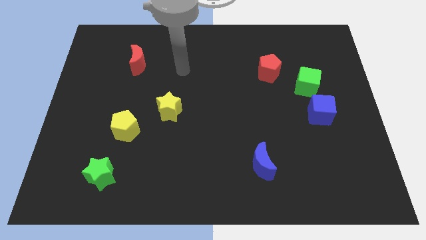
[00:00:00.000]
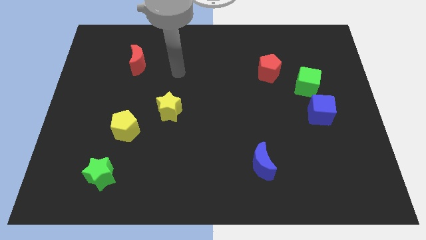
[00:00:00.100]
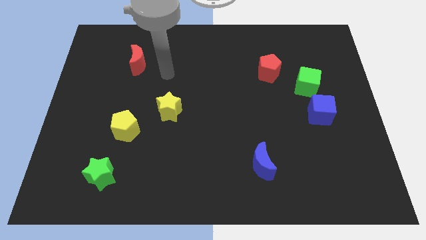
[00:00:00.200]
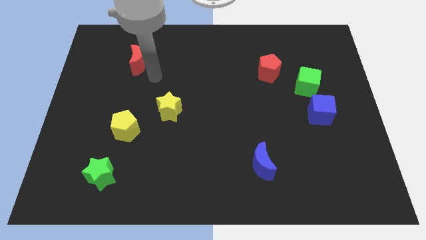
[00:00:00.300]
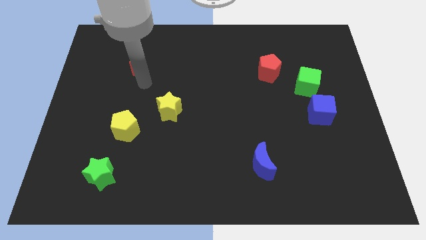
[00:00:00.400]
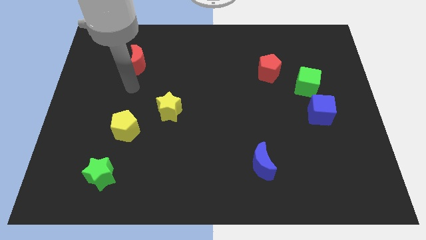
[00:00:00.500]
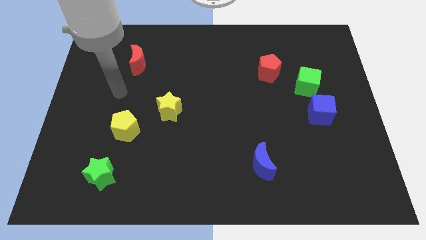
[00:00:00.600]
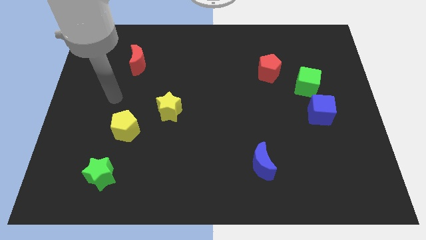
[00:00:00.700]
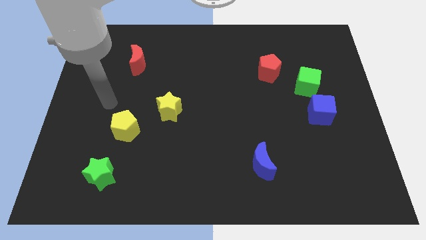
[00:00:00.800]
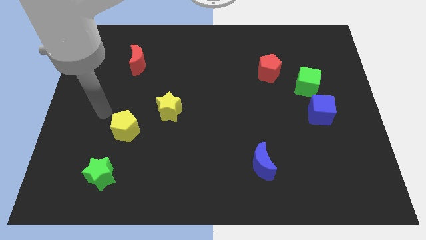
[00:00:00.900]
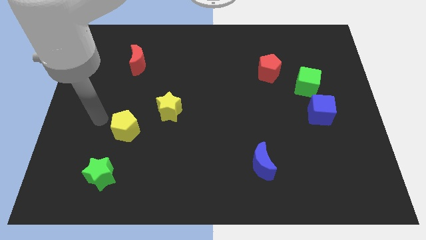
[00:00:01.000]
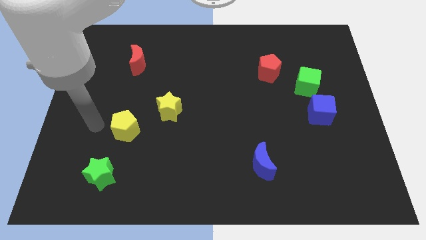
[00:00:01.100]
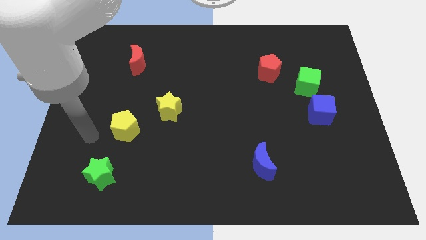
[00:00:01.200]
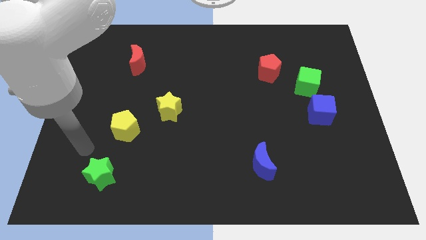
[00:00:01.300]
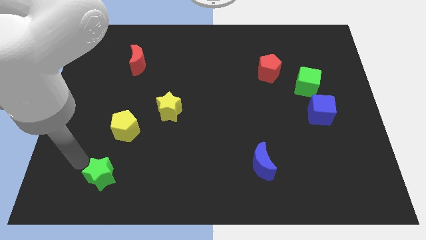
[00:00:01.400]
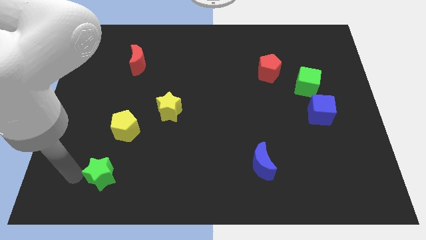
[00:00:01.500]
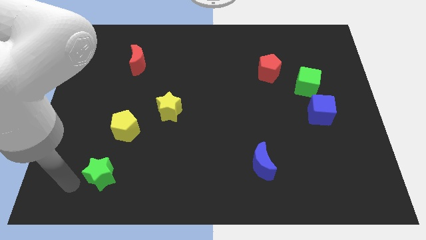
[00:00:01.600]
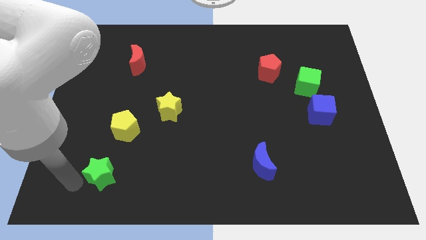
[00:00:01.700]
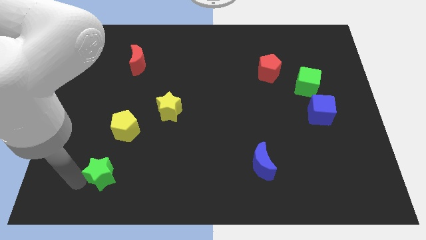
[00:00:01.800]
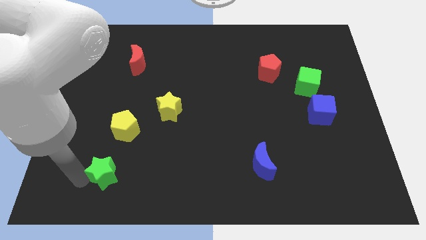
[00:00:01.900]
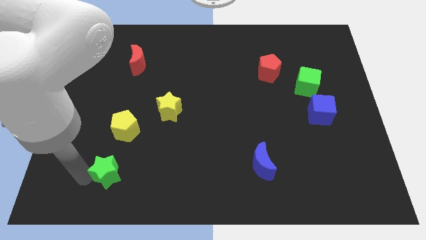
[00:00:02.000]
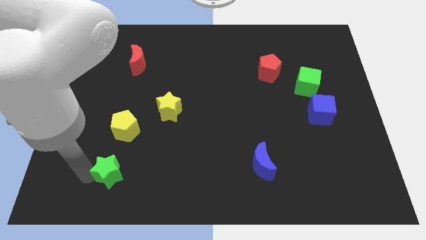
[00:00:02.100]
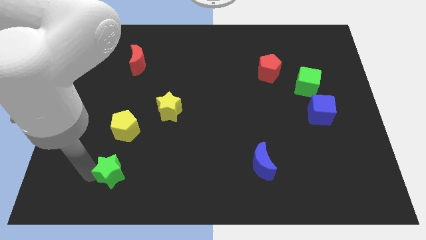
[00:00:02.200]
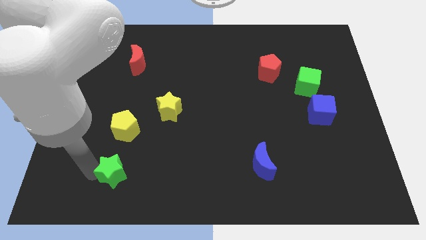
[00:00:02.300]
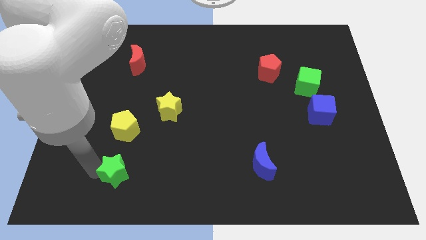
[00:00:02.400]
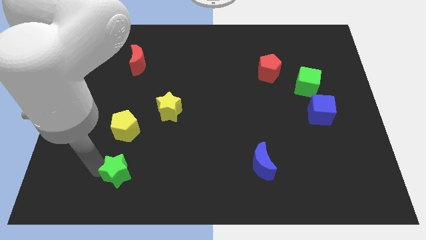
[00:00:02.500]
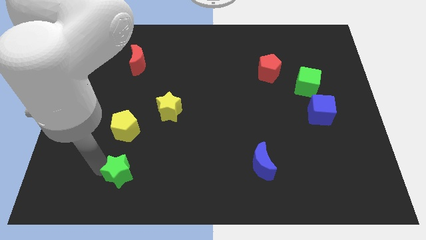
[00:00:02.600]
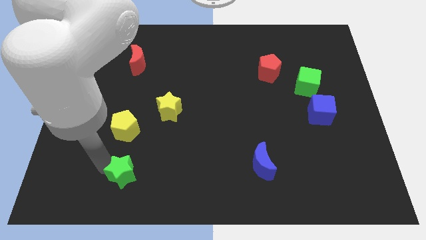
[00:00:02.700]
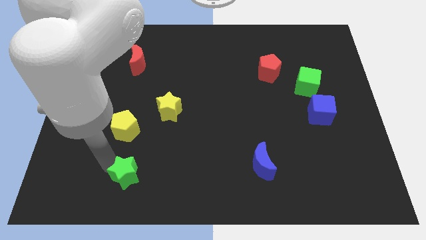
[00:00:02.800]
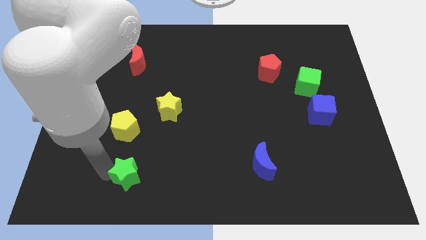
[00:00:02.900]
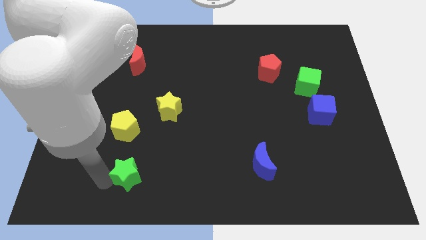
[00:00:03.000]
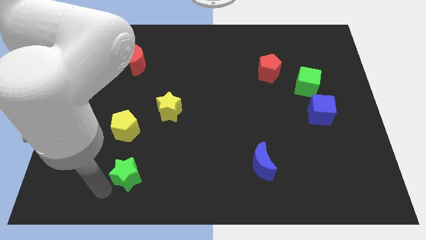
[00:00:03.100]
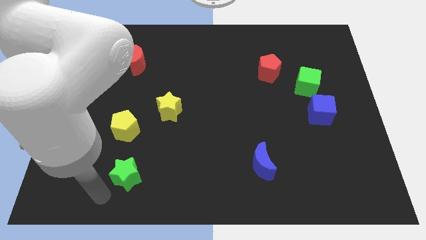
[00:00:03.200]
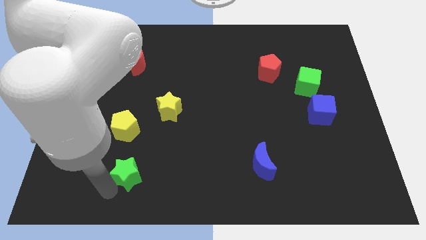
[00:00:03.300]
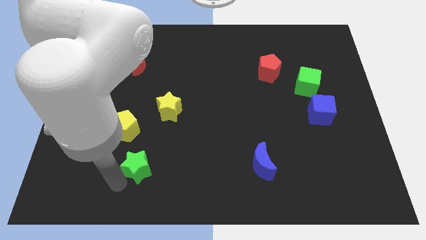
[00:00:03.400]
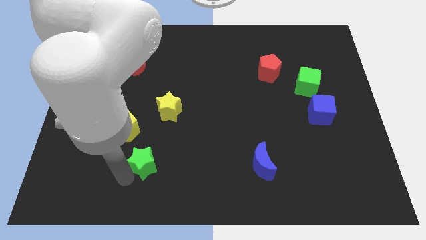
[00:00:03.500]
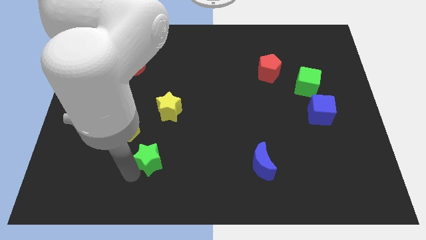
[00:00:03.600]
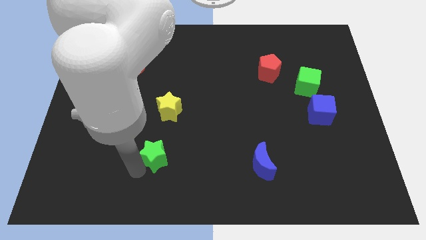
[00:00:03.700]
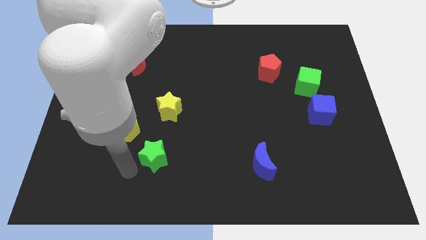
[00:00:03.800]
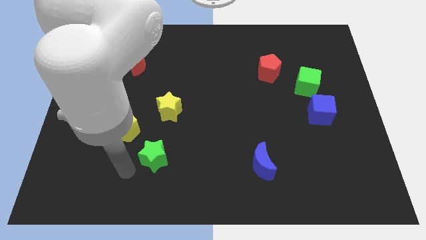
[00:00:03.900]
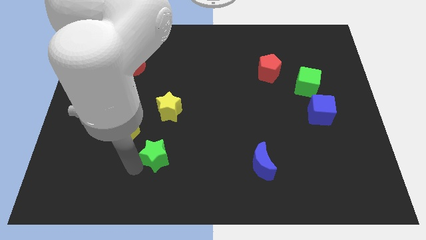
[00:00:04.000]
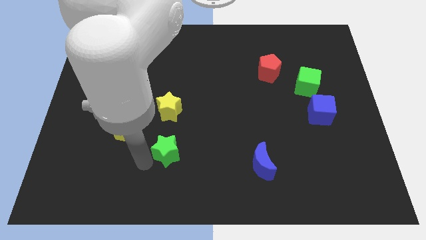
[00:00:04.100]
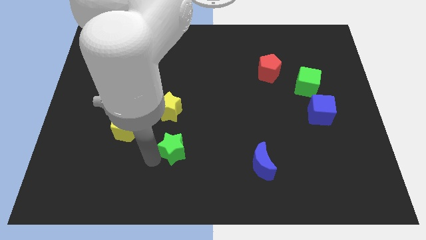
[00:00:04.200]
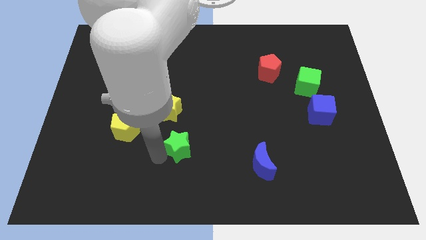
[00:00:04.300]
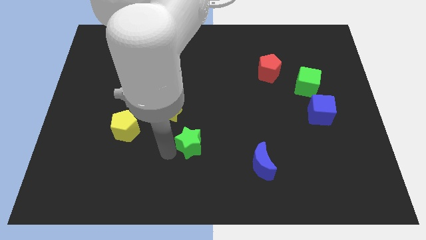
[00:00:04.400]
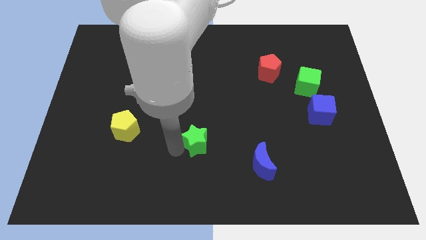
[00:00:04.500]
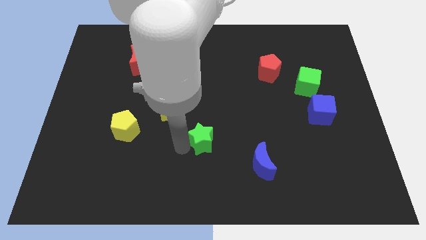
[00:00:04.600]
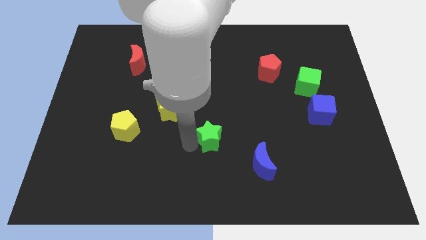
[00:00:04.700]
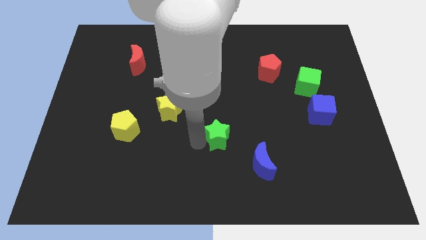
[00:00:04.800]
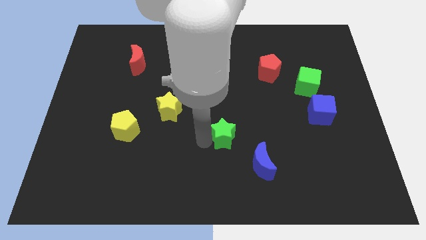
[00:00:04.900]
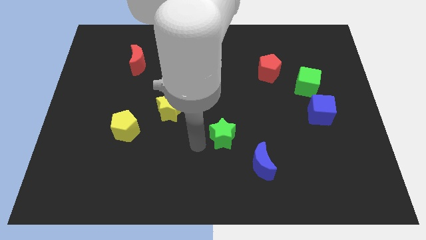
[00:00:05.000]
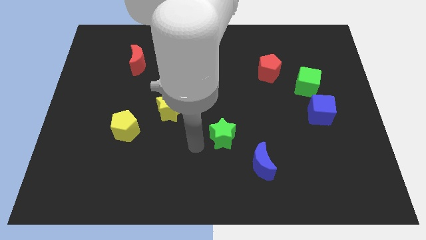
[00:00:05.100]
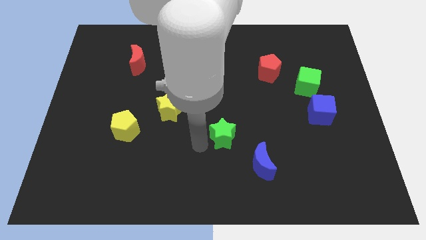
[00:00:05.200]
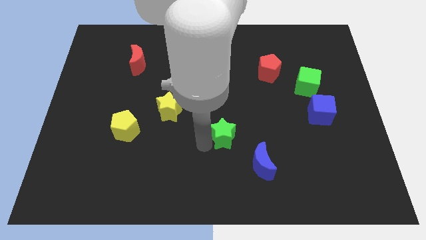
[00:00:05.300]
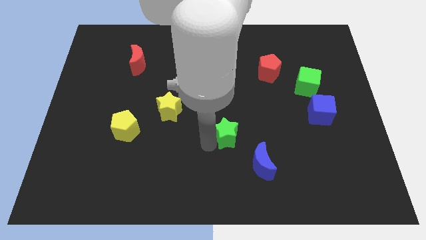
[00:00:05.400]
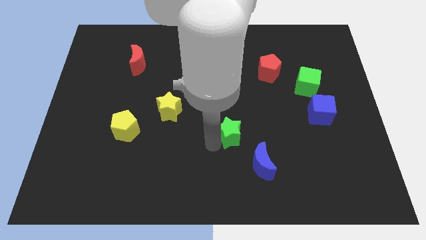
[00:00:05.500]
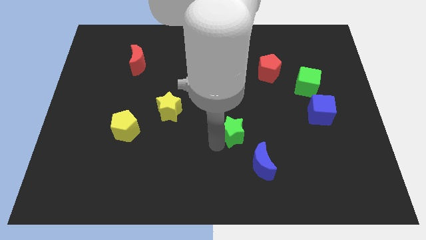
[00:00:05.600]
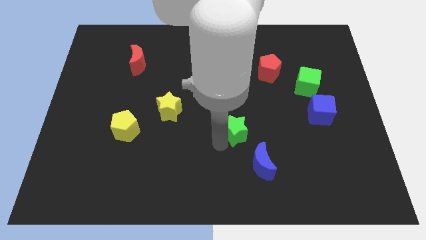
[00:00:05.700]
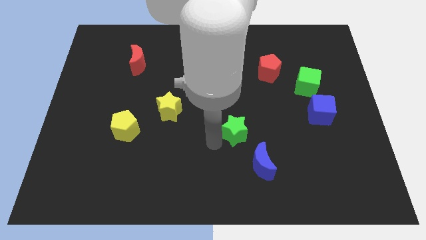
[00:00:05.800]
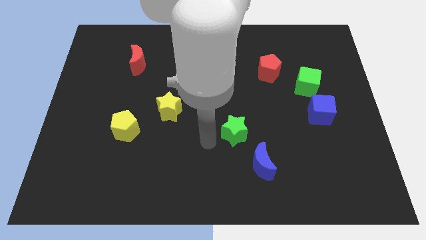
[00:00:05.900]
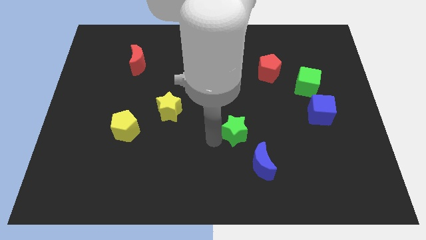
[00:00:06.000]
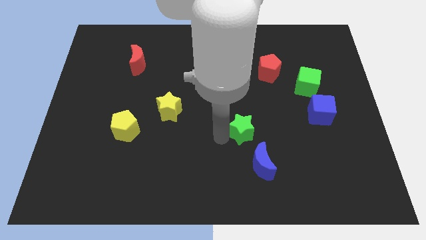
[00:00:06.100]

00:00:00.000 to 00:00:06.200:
push the green star above the blue moon
